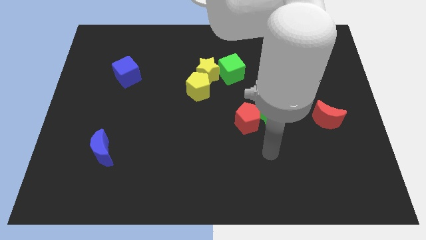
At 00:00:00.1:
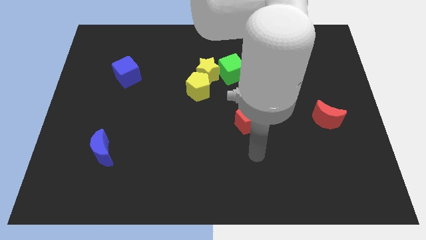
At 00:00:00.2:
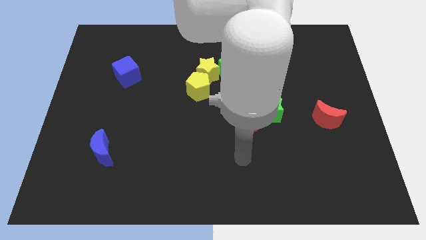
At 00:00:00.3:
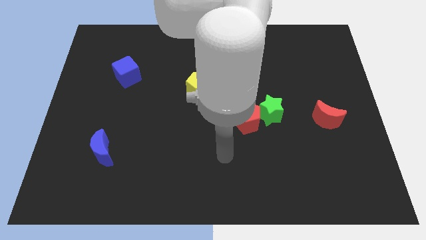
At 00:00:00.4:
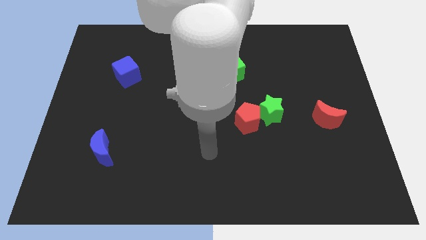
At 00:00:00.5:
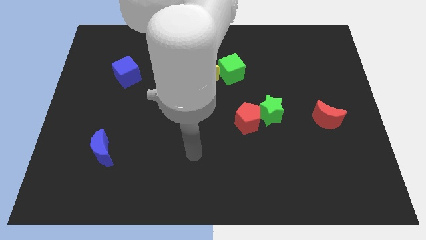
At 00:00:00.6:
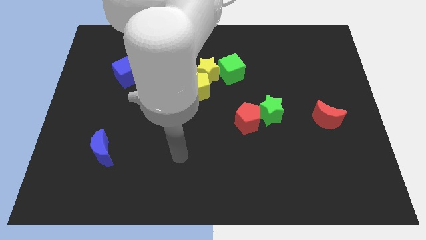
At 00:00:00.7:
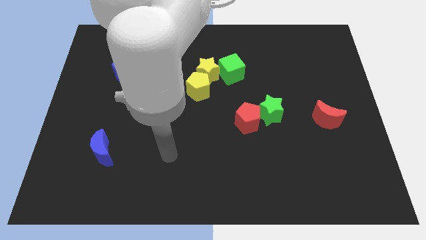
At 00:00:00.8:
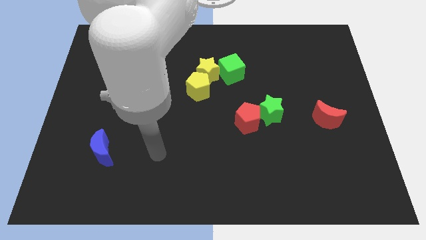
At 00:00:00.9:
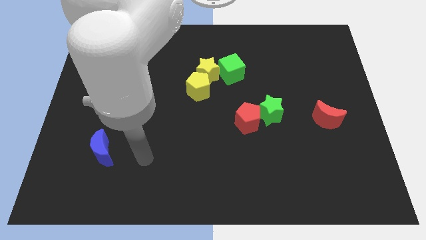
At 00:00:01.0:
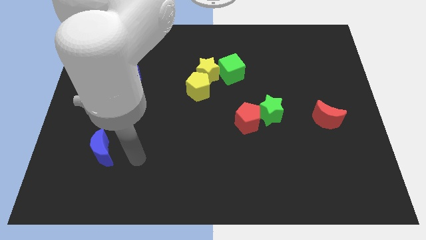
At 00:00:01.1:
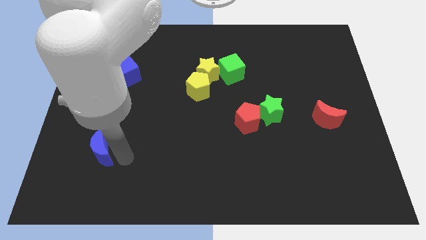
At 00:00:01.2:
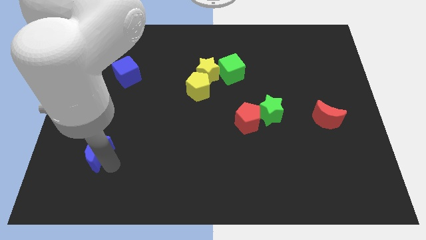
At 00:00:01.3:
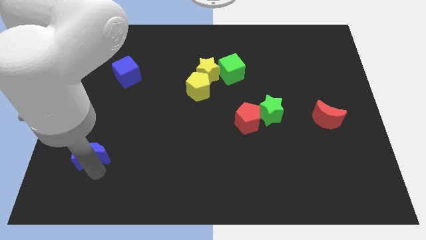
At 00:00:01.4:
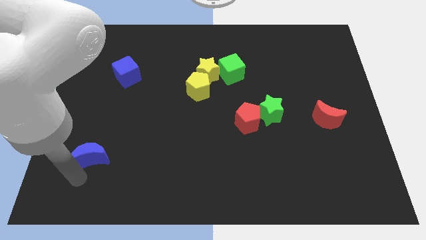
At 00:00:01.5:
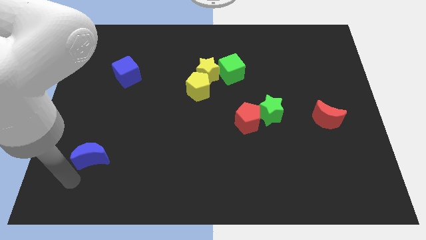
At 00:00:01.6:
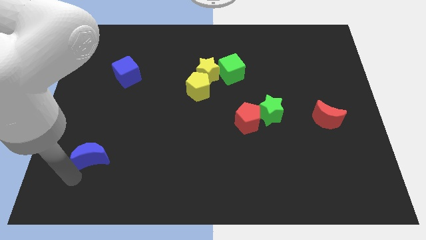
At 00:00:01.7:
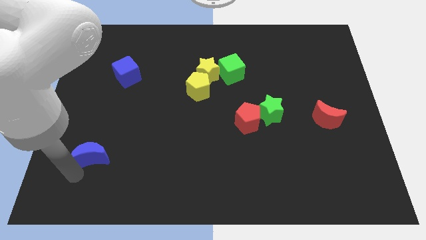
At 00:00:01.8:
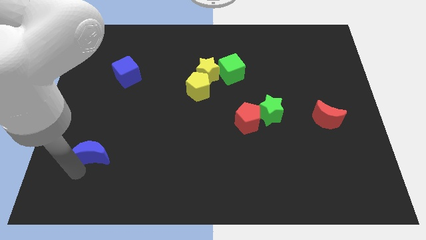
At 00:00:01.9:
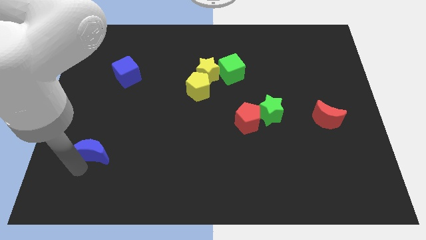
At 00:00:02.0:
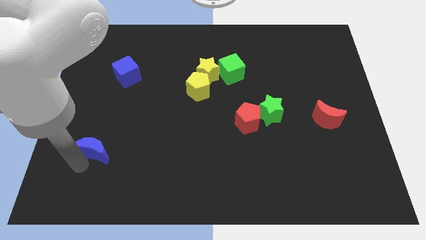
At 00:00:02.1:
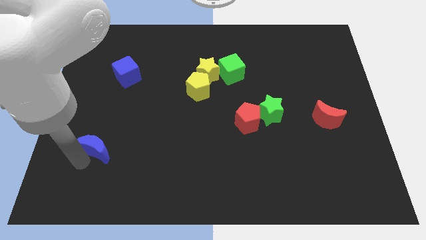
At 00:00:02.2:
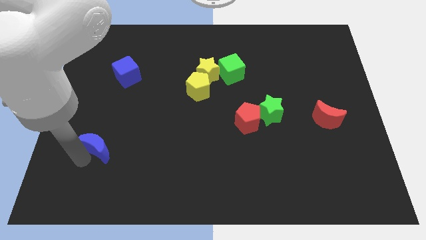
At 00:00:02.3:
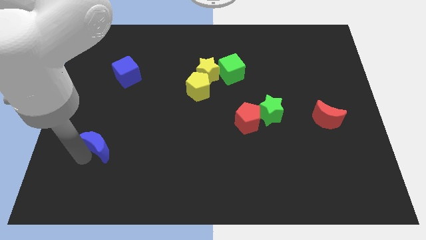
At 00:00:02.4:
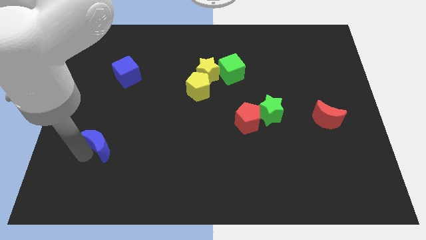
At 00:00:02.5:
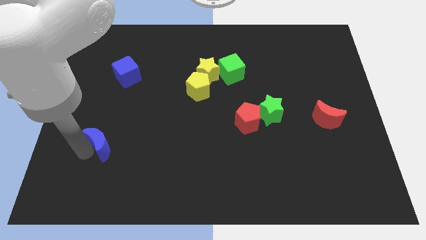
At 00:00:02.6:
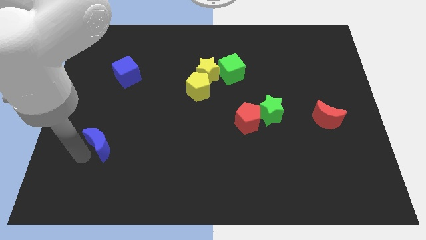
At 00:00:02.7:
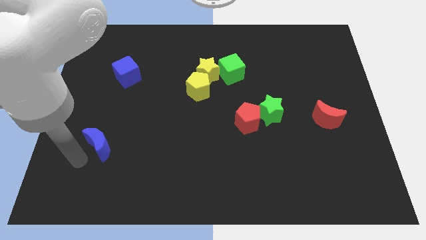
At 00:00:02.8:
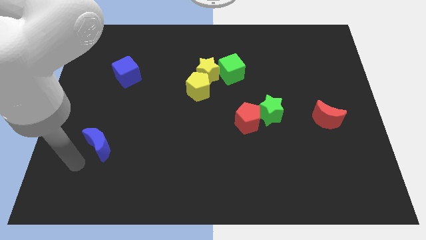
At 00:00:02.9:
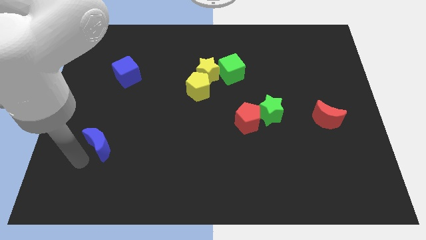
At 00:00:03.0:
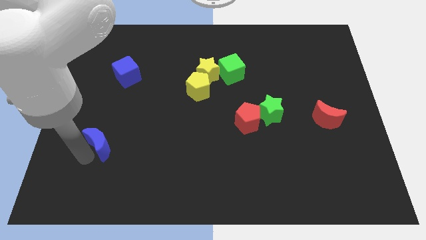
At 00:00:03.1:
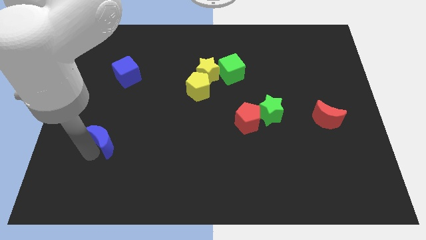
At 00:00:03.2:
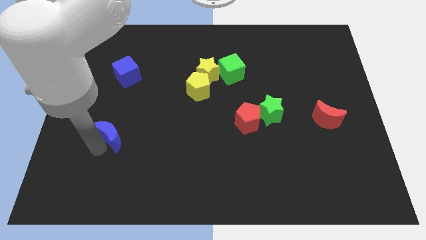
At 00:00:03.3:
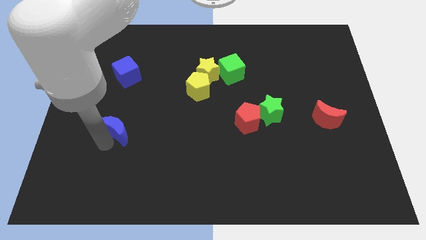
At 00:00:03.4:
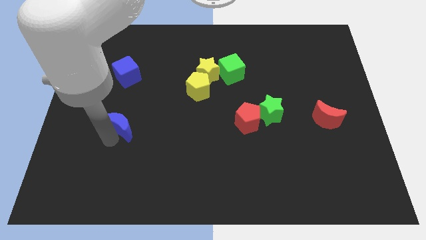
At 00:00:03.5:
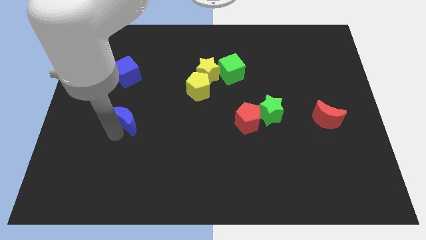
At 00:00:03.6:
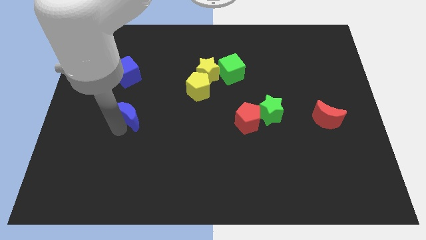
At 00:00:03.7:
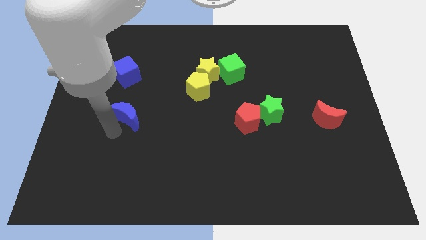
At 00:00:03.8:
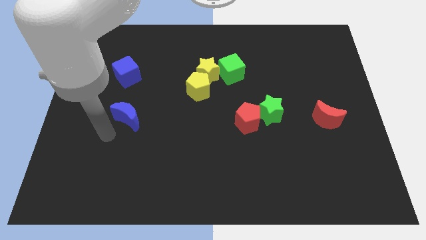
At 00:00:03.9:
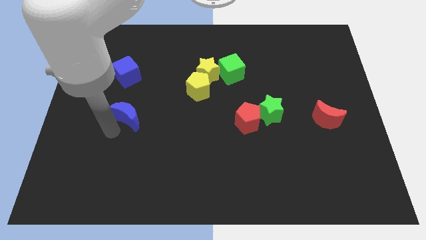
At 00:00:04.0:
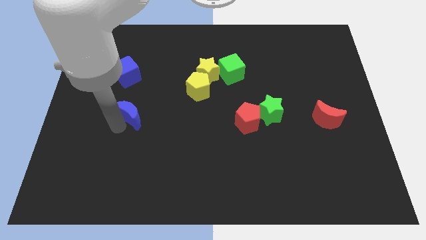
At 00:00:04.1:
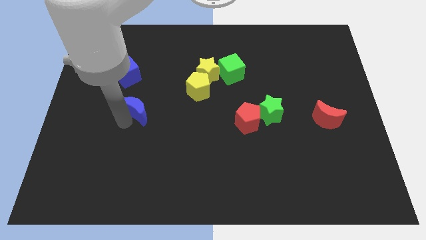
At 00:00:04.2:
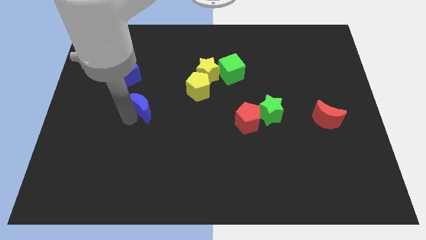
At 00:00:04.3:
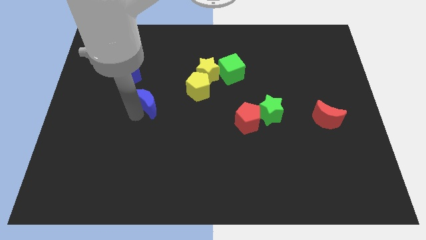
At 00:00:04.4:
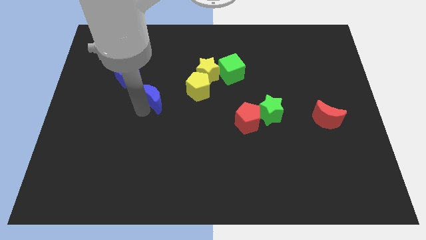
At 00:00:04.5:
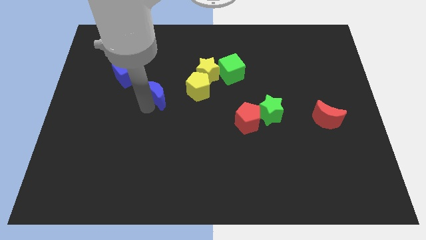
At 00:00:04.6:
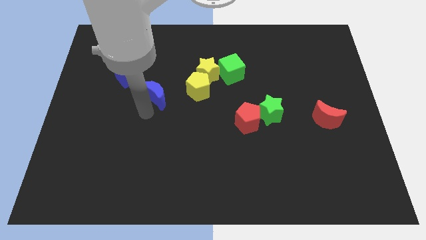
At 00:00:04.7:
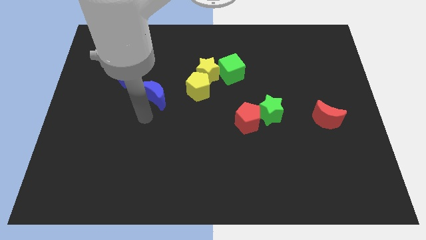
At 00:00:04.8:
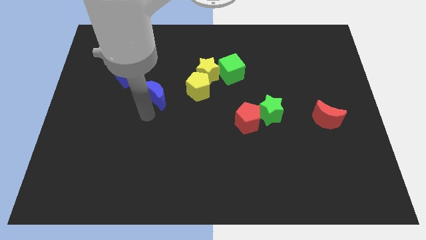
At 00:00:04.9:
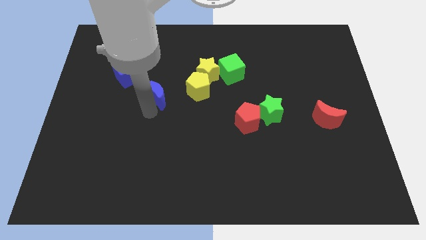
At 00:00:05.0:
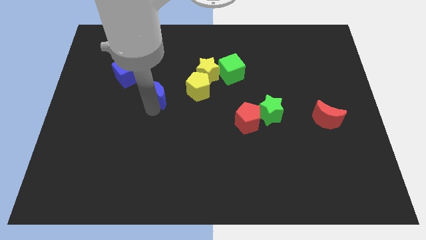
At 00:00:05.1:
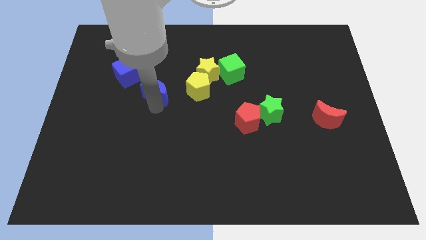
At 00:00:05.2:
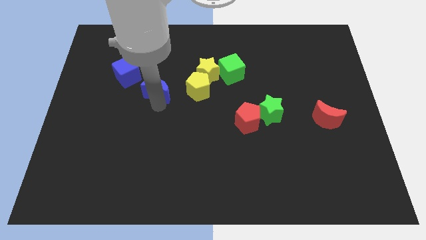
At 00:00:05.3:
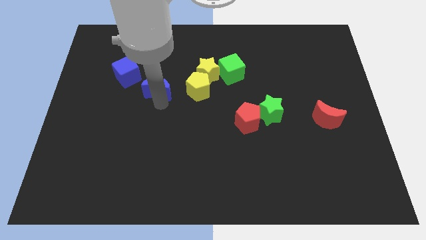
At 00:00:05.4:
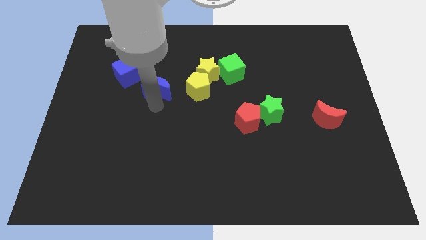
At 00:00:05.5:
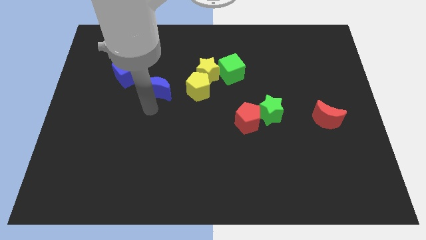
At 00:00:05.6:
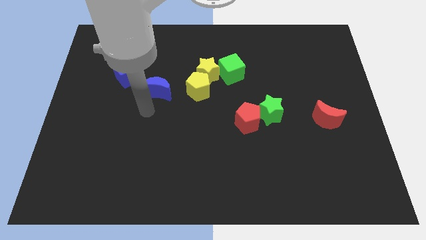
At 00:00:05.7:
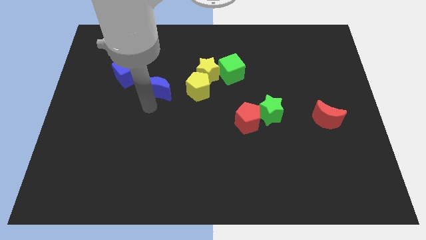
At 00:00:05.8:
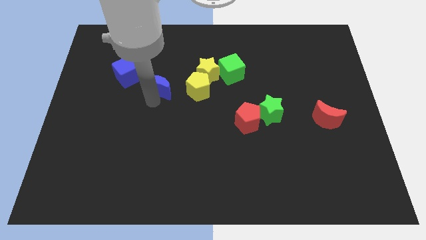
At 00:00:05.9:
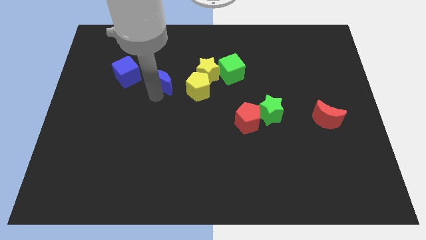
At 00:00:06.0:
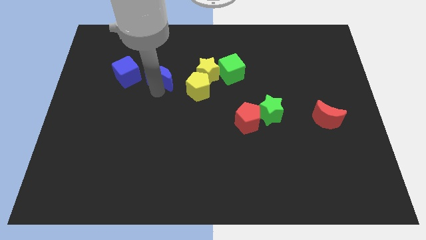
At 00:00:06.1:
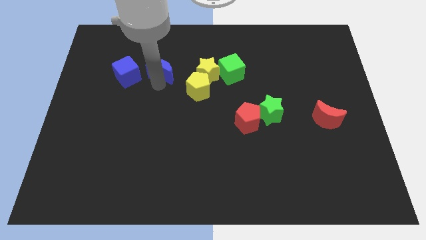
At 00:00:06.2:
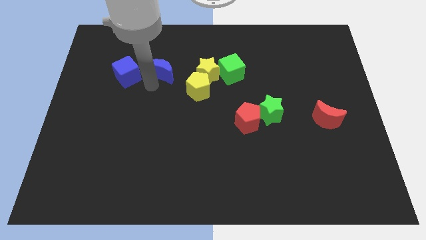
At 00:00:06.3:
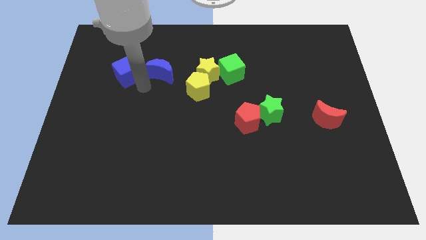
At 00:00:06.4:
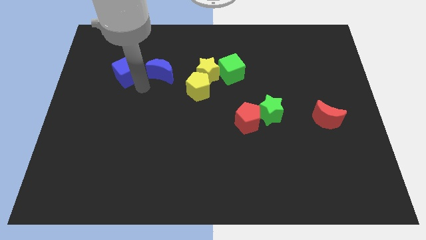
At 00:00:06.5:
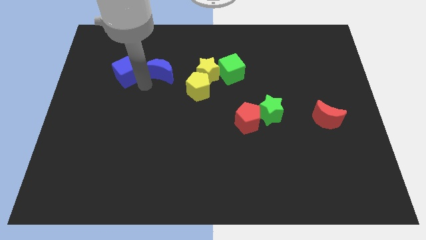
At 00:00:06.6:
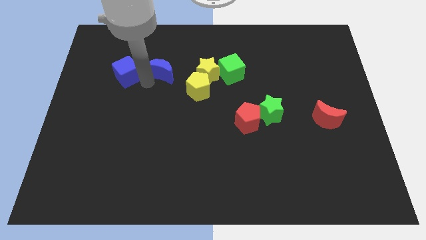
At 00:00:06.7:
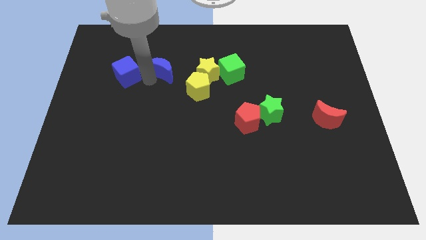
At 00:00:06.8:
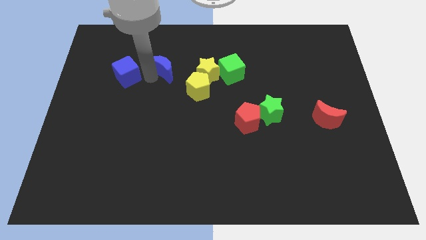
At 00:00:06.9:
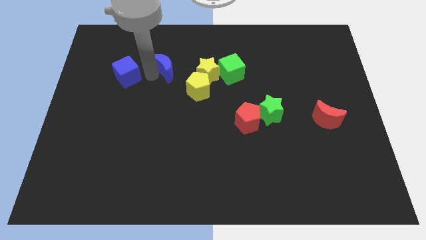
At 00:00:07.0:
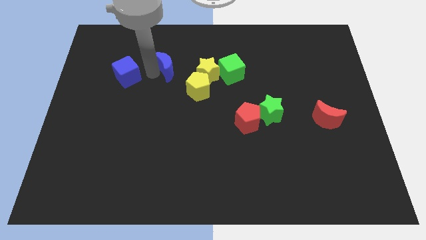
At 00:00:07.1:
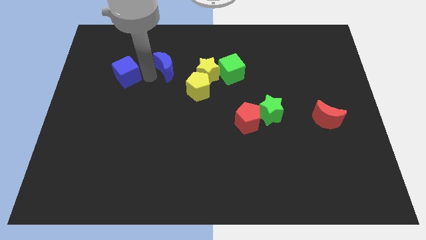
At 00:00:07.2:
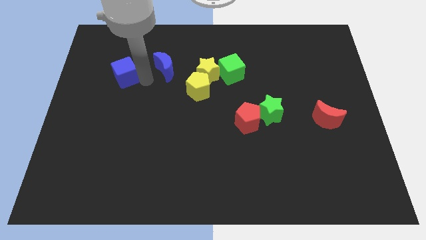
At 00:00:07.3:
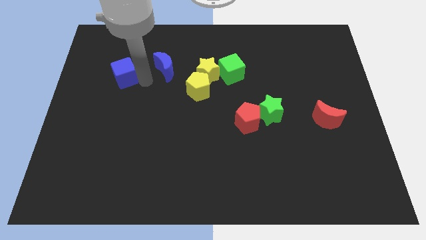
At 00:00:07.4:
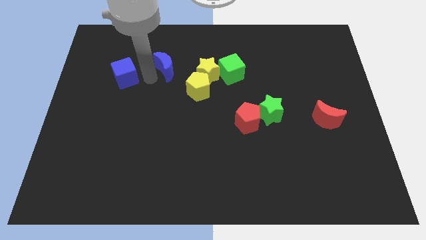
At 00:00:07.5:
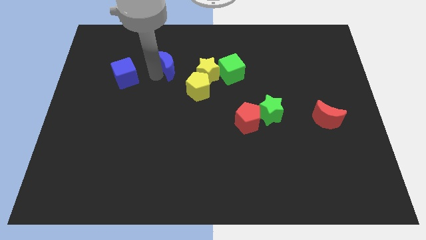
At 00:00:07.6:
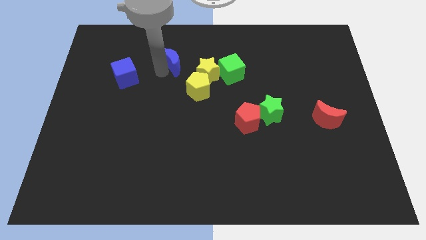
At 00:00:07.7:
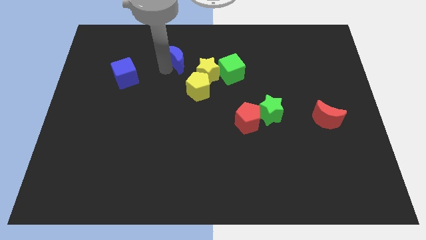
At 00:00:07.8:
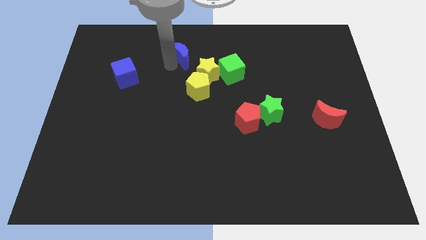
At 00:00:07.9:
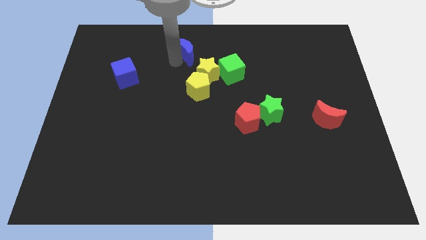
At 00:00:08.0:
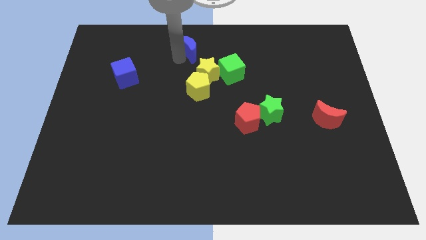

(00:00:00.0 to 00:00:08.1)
put the blue moon to the towards your base

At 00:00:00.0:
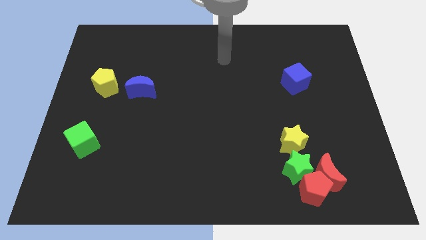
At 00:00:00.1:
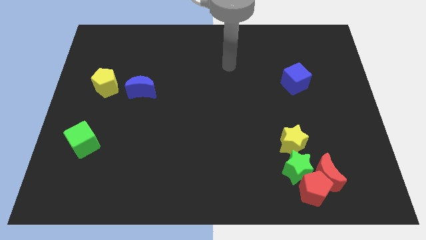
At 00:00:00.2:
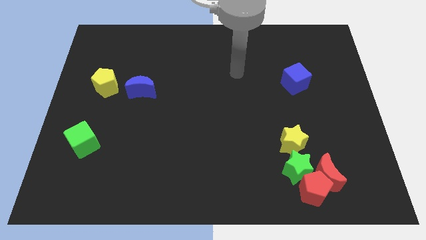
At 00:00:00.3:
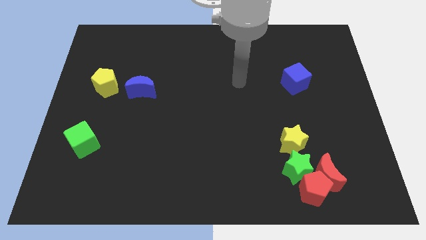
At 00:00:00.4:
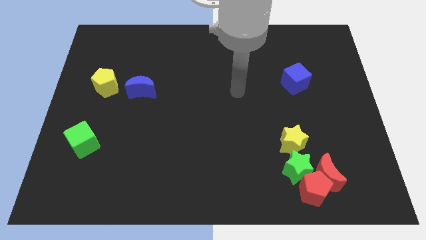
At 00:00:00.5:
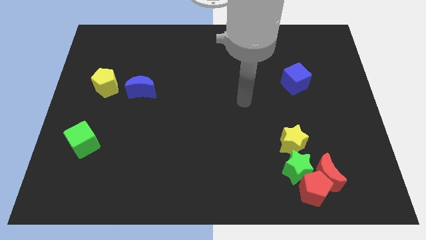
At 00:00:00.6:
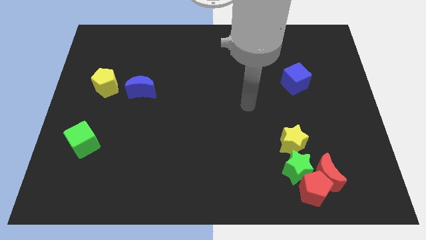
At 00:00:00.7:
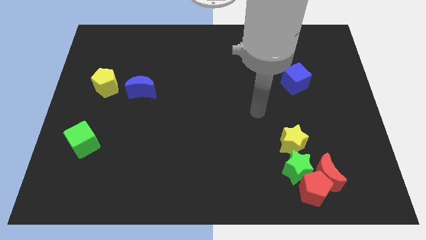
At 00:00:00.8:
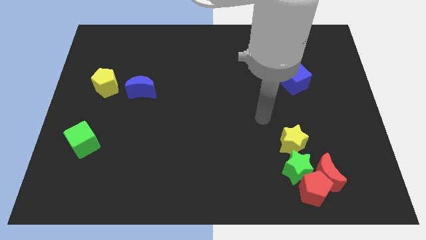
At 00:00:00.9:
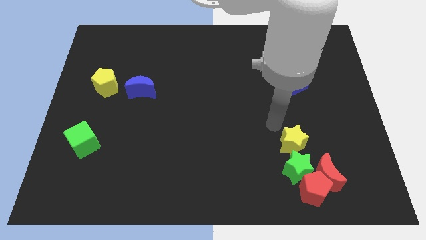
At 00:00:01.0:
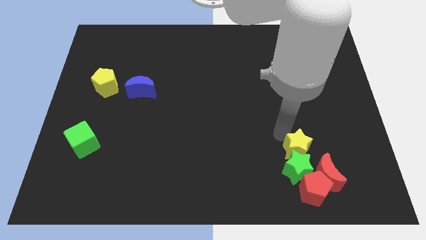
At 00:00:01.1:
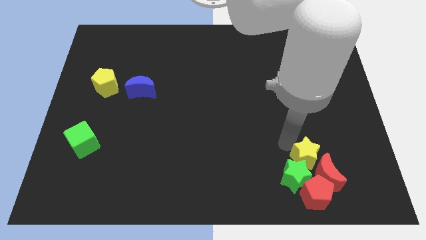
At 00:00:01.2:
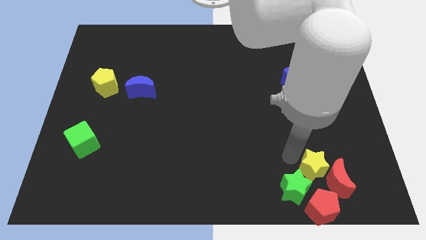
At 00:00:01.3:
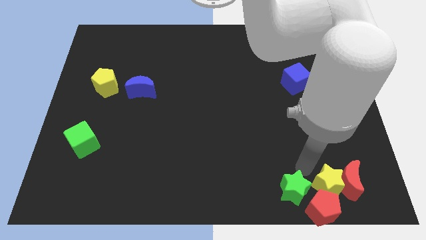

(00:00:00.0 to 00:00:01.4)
move the red moon to the lower right corner
